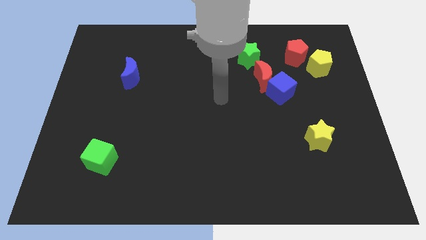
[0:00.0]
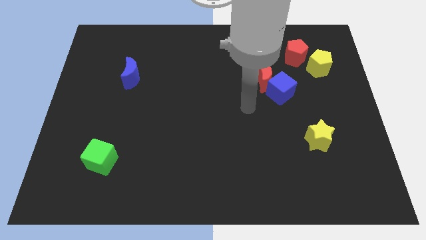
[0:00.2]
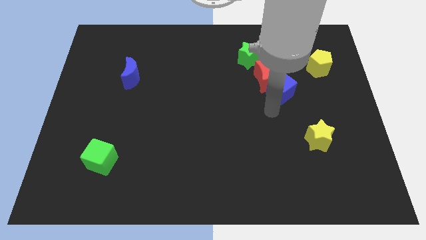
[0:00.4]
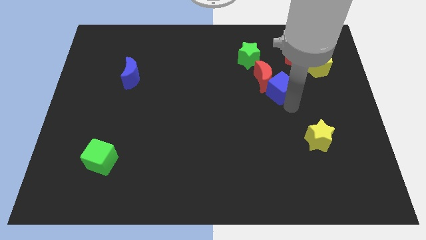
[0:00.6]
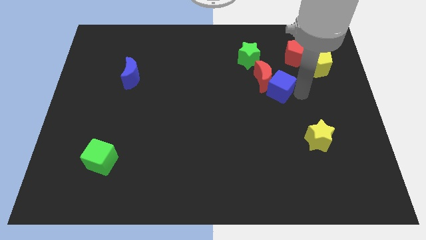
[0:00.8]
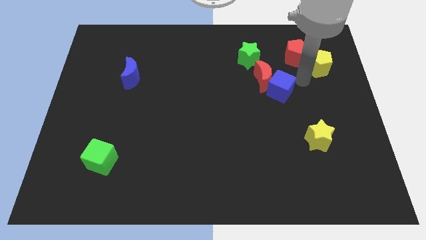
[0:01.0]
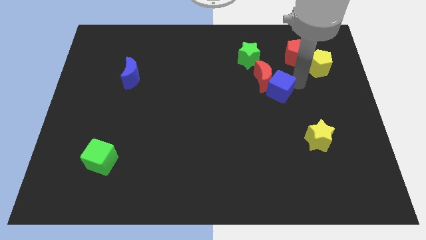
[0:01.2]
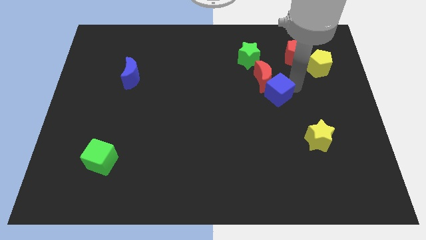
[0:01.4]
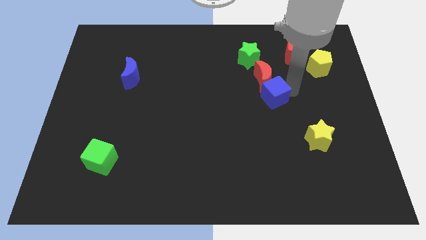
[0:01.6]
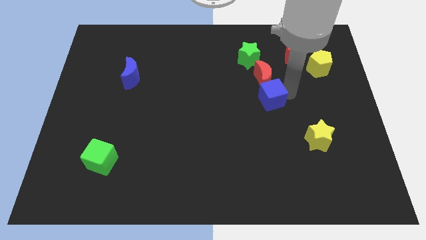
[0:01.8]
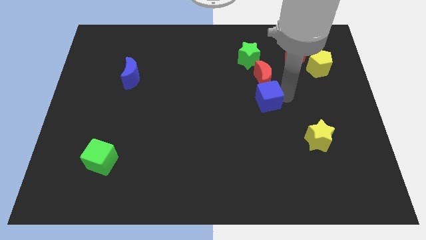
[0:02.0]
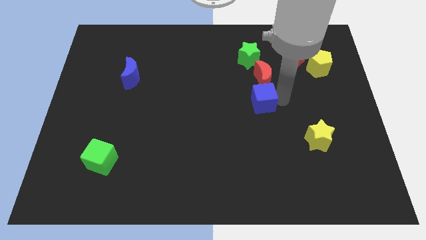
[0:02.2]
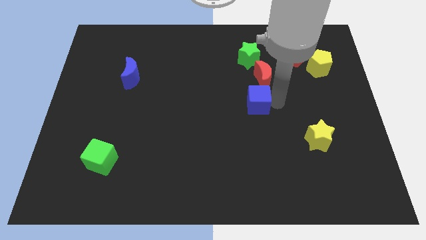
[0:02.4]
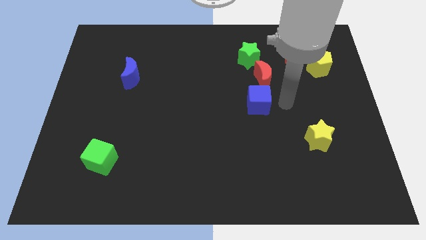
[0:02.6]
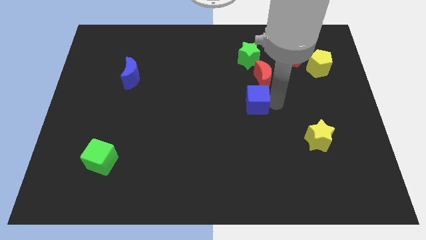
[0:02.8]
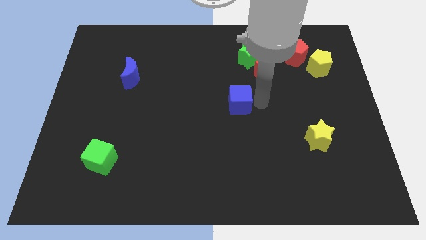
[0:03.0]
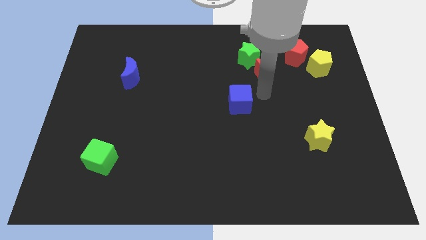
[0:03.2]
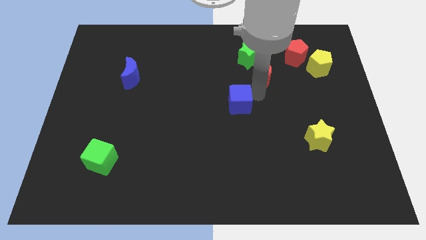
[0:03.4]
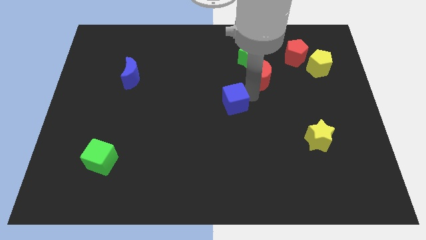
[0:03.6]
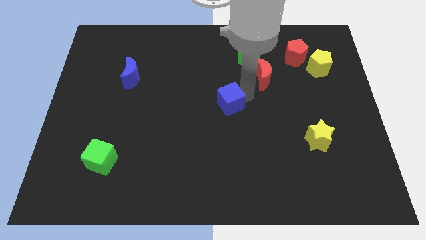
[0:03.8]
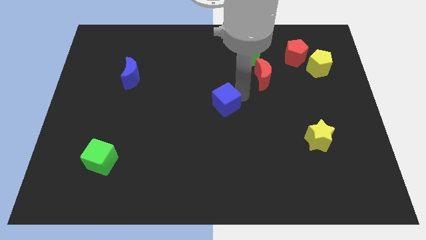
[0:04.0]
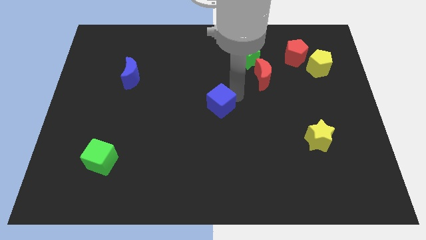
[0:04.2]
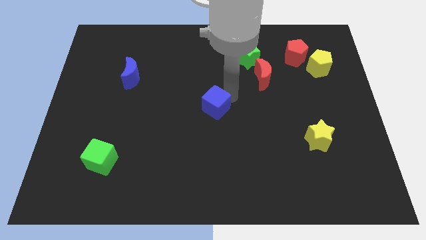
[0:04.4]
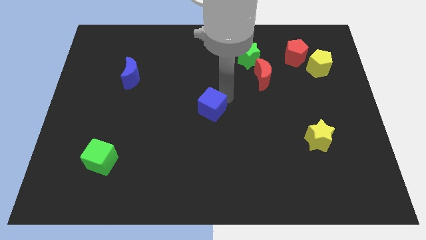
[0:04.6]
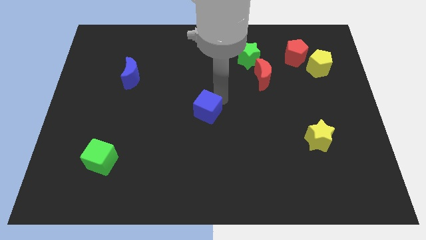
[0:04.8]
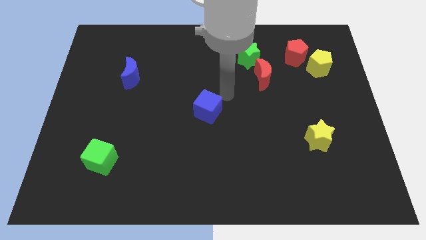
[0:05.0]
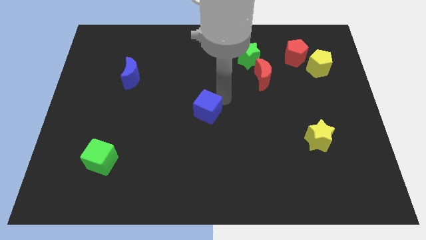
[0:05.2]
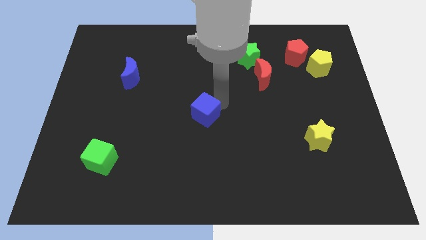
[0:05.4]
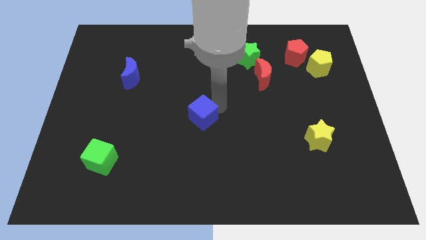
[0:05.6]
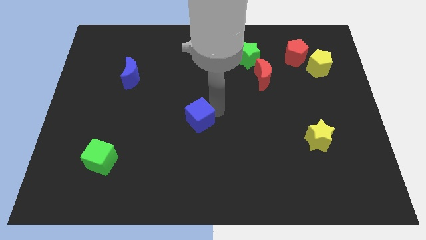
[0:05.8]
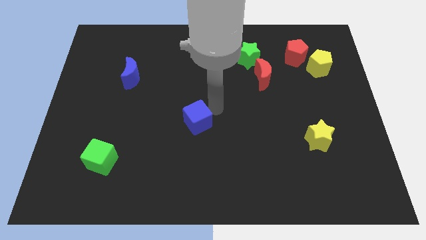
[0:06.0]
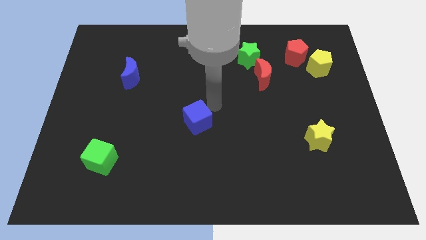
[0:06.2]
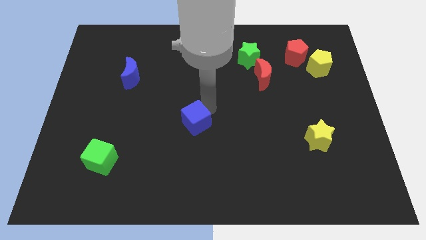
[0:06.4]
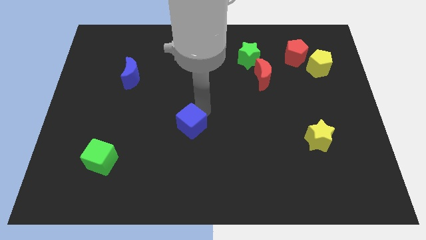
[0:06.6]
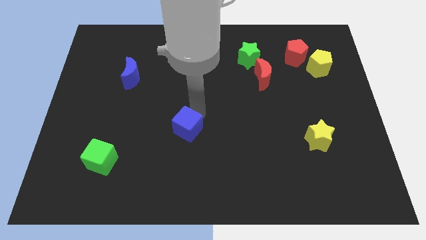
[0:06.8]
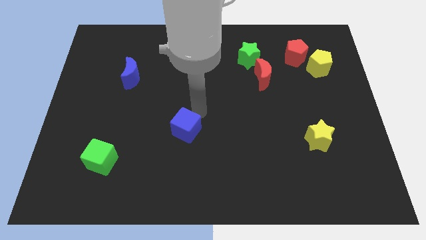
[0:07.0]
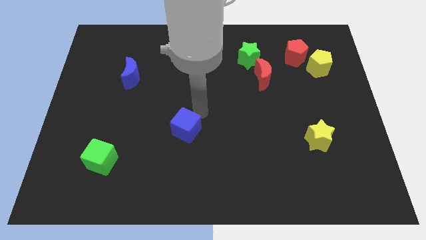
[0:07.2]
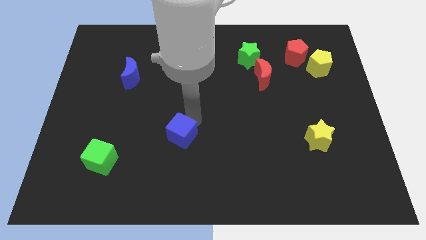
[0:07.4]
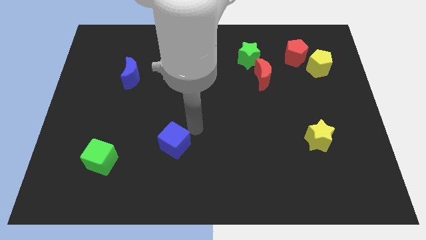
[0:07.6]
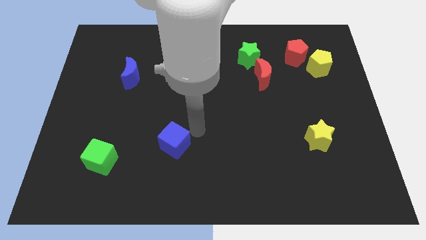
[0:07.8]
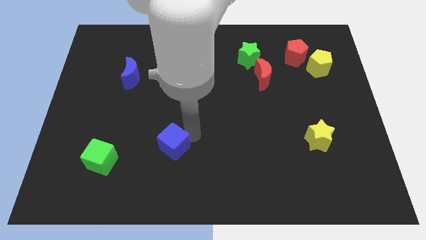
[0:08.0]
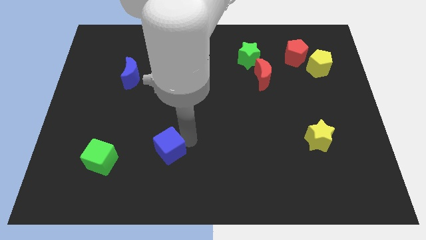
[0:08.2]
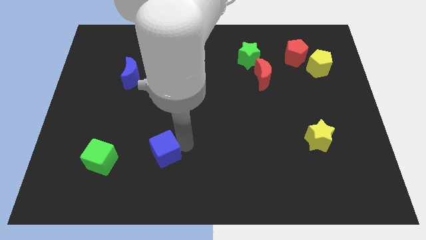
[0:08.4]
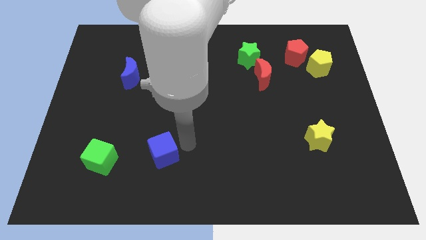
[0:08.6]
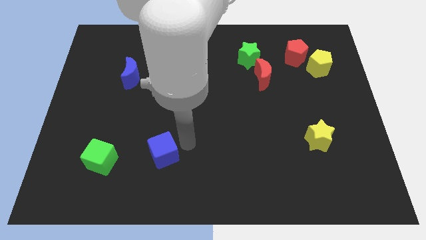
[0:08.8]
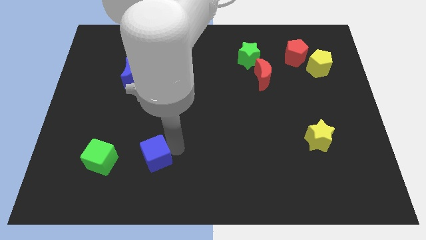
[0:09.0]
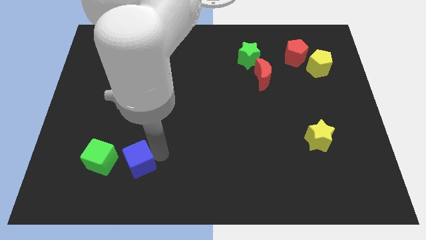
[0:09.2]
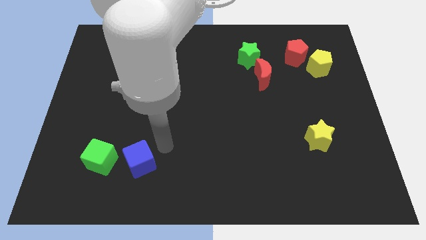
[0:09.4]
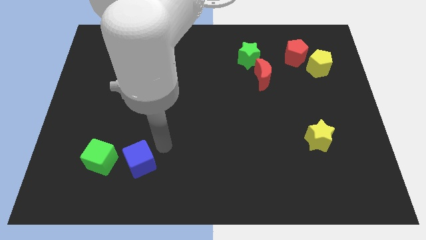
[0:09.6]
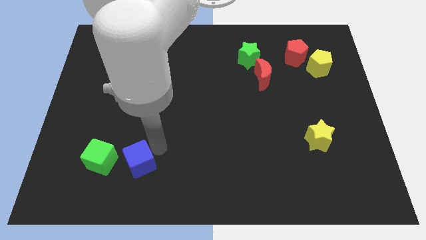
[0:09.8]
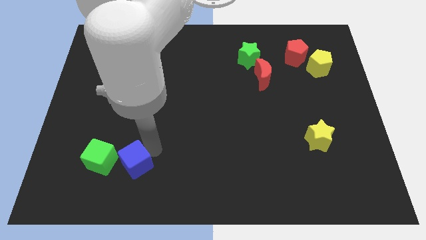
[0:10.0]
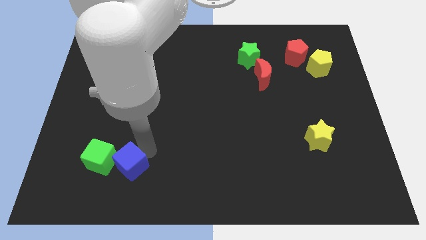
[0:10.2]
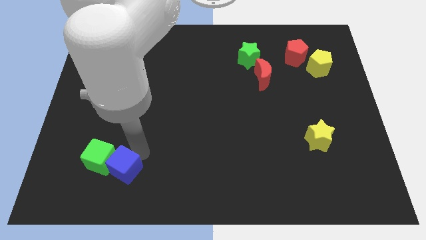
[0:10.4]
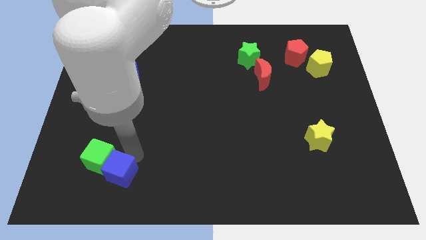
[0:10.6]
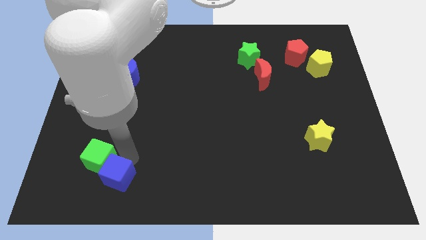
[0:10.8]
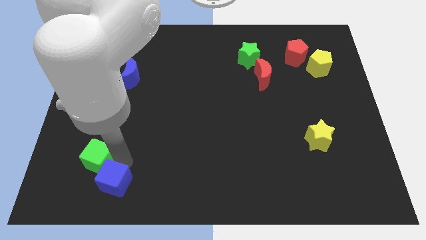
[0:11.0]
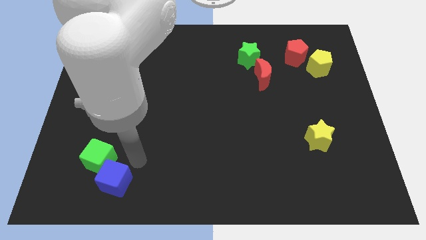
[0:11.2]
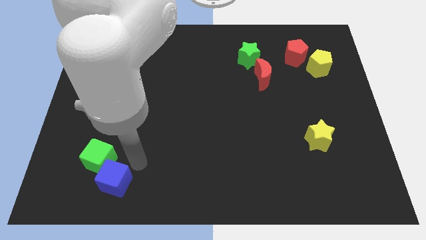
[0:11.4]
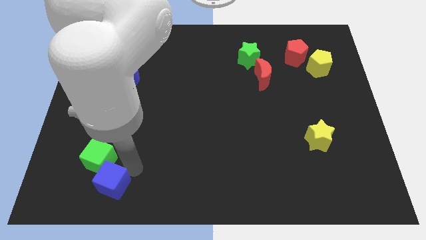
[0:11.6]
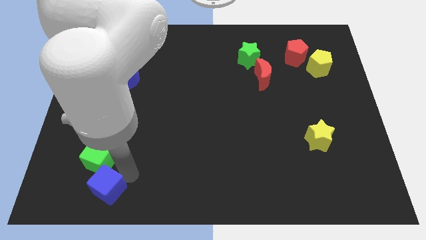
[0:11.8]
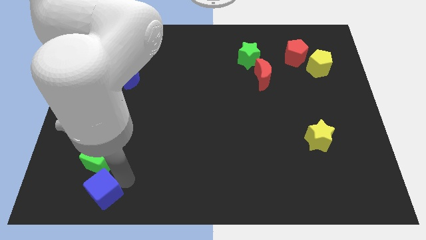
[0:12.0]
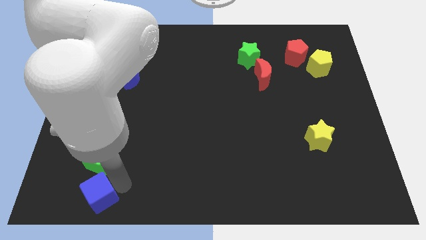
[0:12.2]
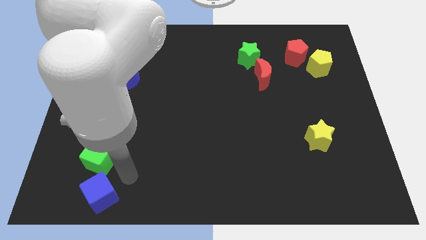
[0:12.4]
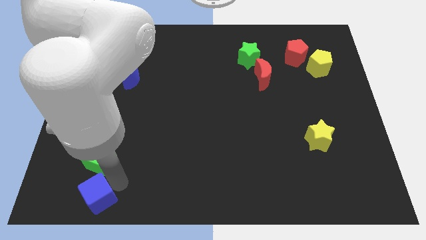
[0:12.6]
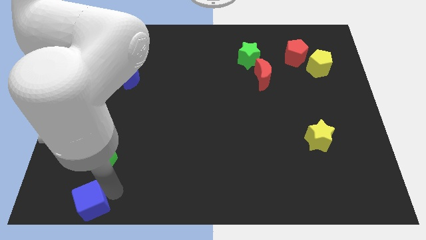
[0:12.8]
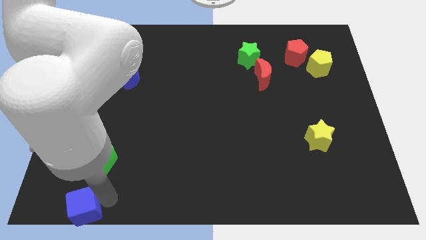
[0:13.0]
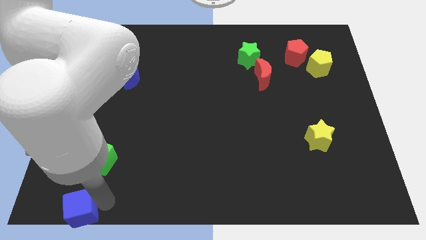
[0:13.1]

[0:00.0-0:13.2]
push the blue cube to the bottom left corner

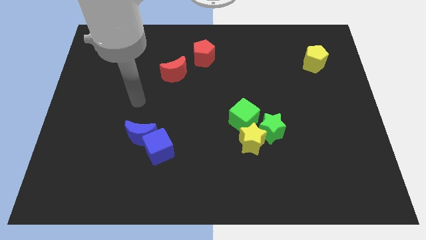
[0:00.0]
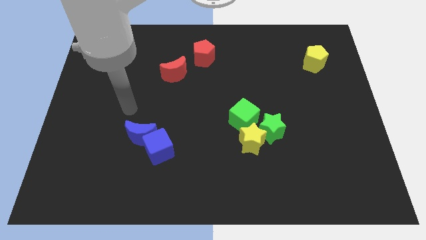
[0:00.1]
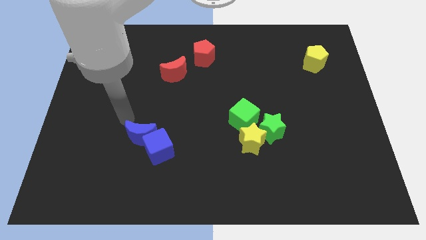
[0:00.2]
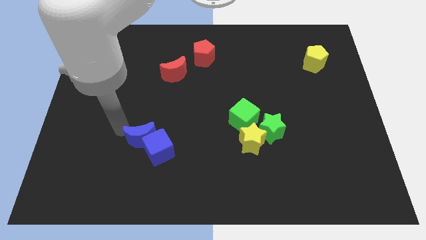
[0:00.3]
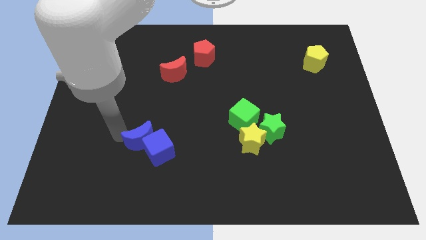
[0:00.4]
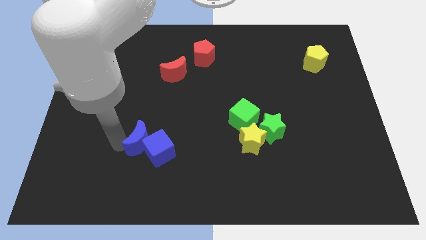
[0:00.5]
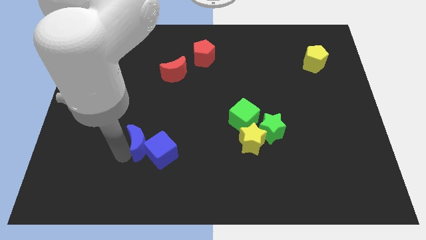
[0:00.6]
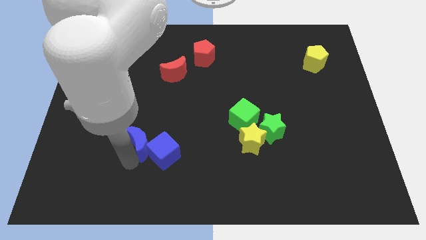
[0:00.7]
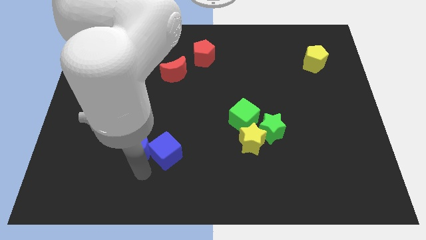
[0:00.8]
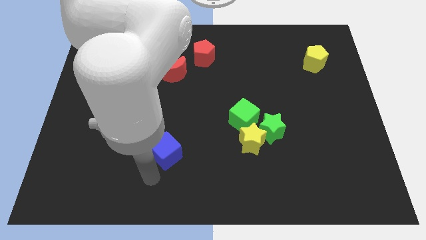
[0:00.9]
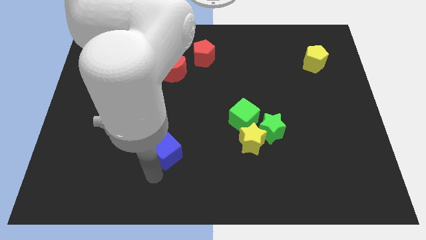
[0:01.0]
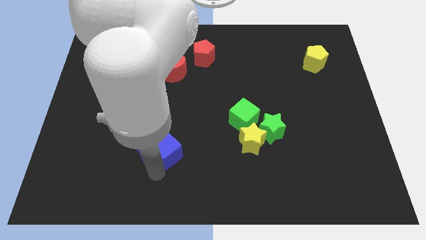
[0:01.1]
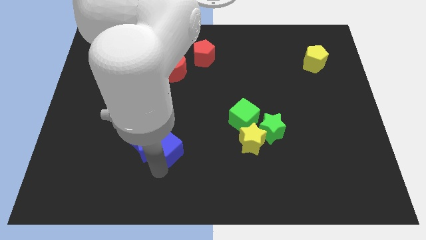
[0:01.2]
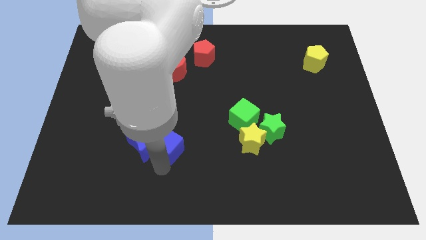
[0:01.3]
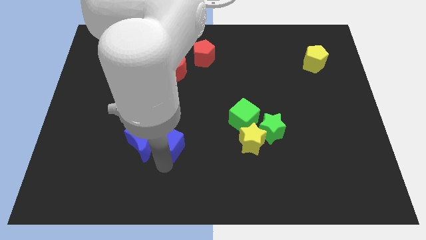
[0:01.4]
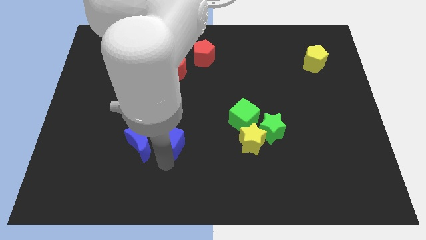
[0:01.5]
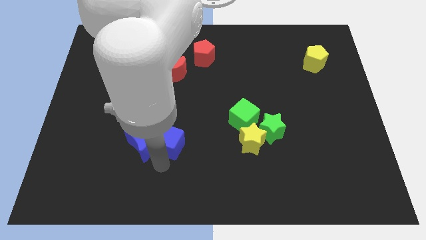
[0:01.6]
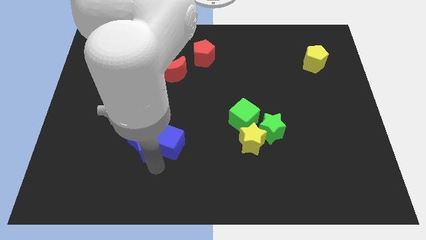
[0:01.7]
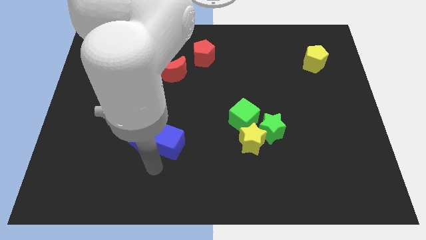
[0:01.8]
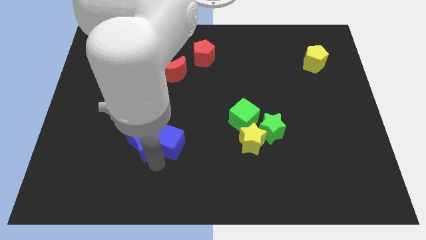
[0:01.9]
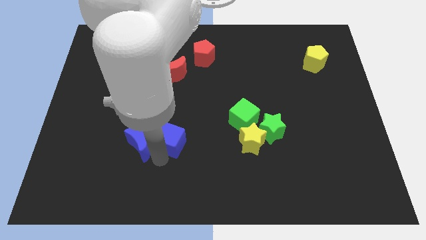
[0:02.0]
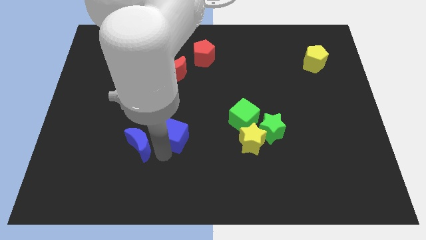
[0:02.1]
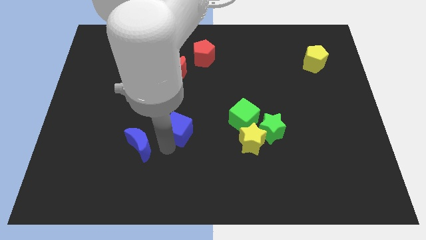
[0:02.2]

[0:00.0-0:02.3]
move the blue cube to the center
